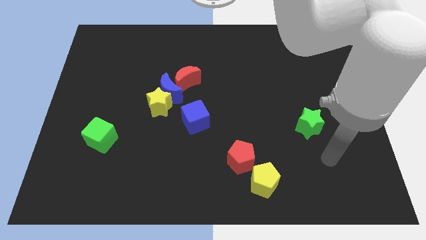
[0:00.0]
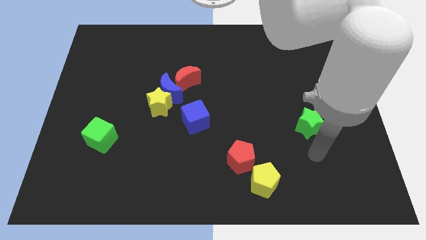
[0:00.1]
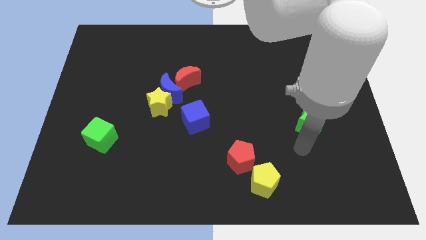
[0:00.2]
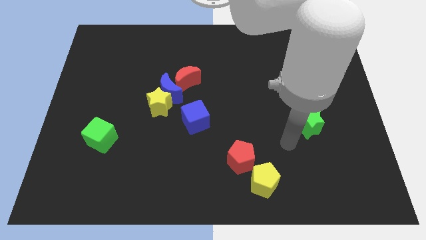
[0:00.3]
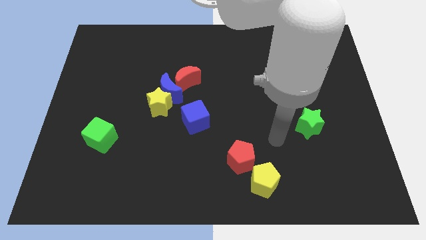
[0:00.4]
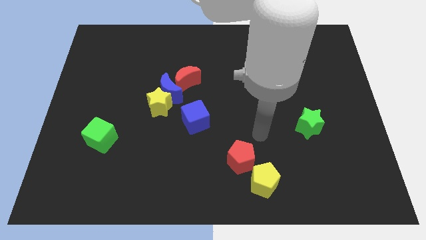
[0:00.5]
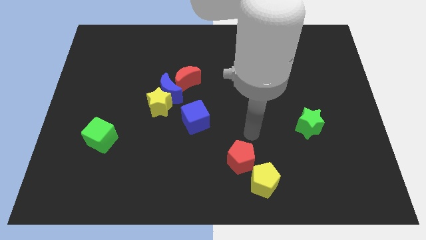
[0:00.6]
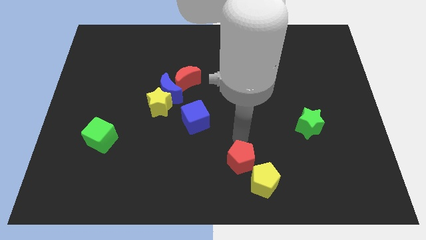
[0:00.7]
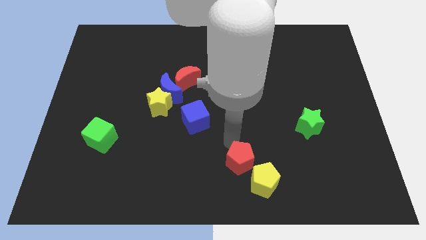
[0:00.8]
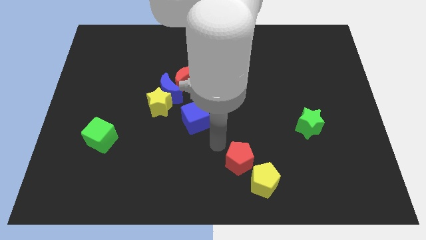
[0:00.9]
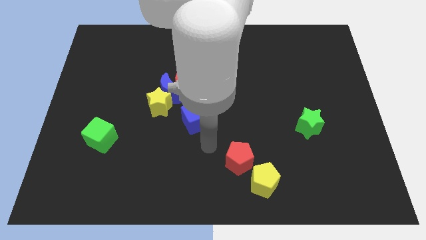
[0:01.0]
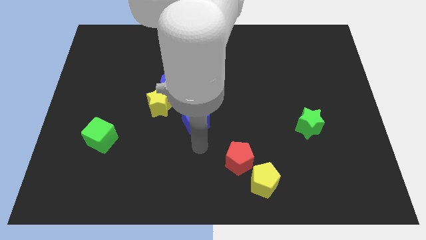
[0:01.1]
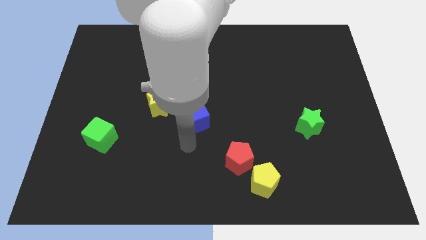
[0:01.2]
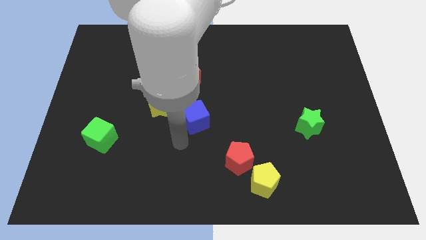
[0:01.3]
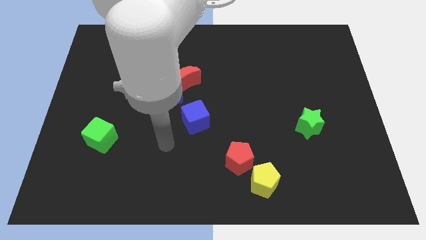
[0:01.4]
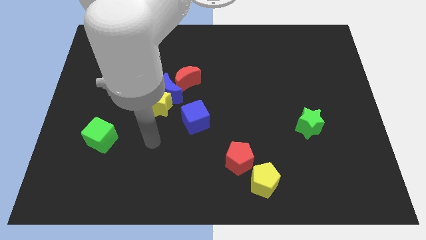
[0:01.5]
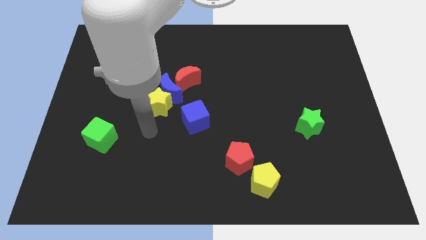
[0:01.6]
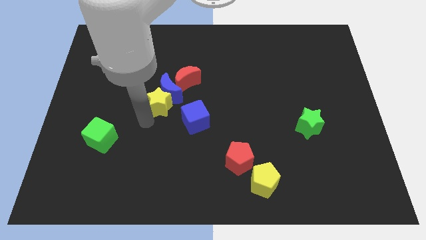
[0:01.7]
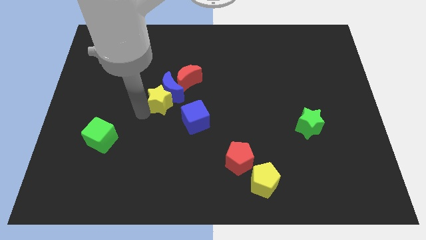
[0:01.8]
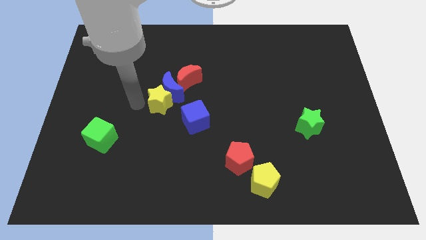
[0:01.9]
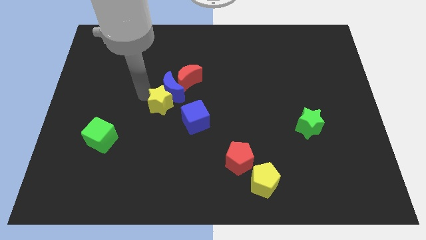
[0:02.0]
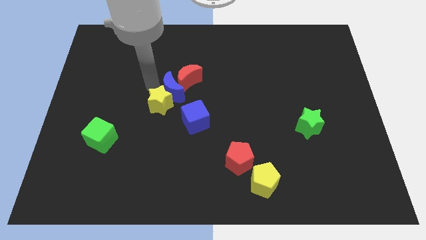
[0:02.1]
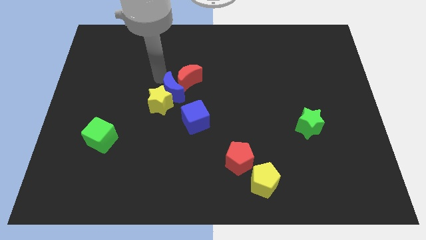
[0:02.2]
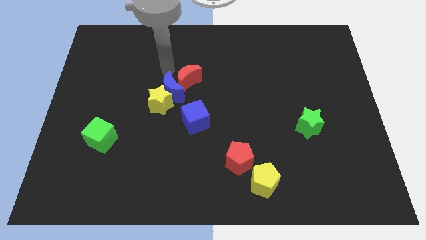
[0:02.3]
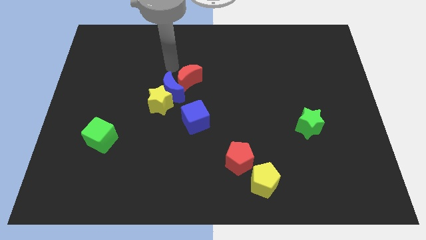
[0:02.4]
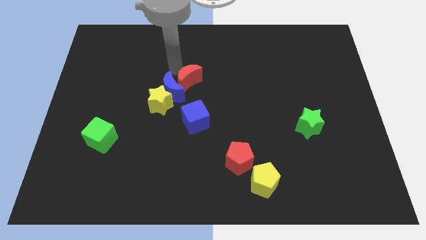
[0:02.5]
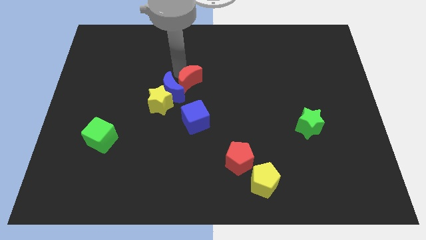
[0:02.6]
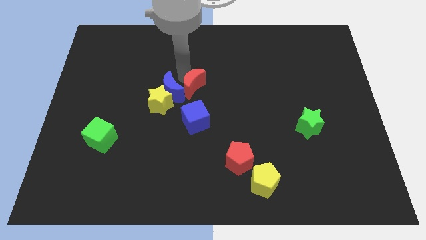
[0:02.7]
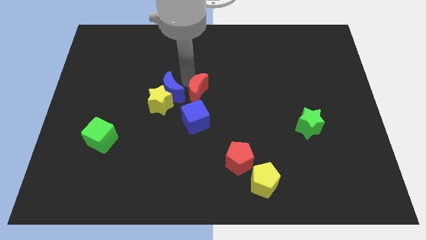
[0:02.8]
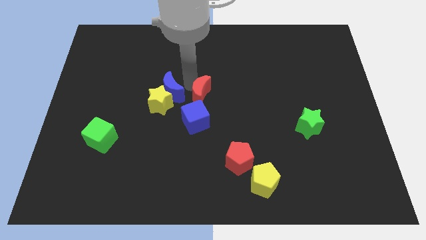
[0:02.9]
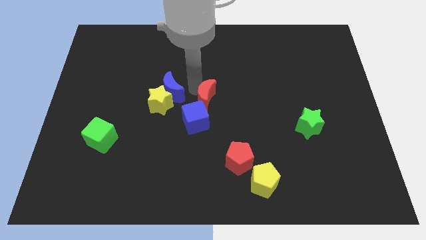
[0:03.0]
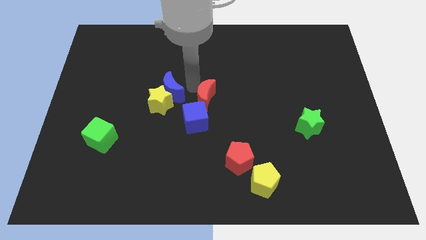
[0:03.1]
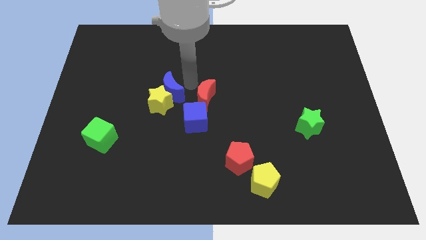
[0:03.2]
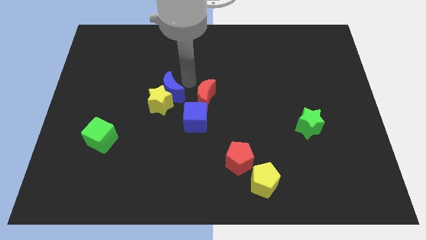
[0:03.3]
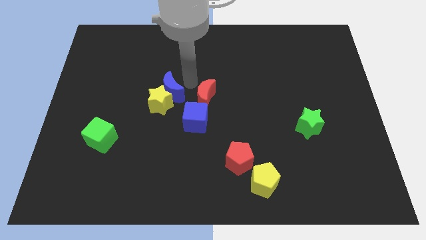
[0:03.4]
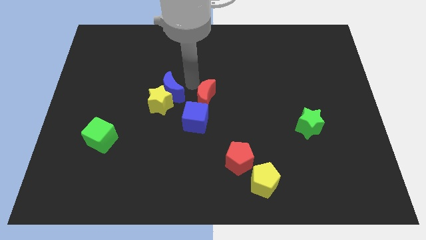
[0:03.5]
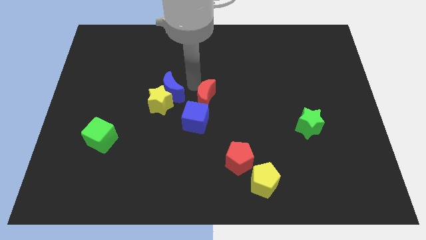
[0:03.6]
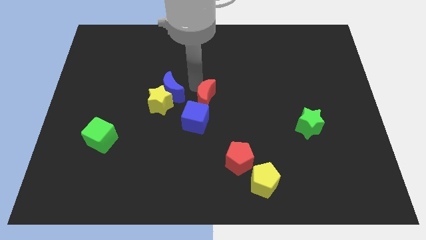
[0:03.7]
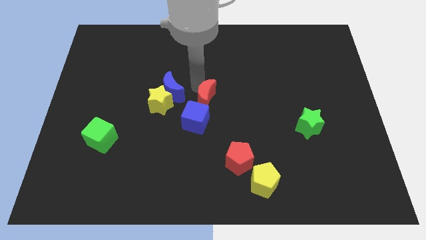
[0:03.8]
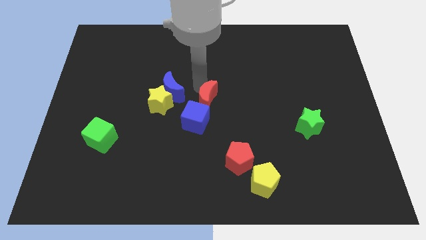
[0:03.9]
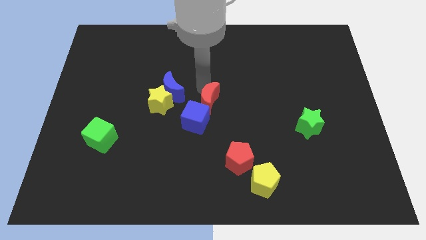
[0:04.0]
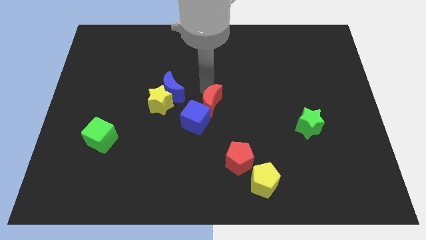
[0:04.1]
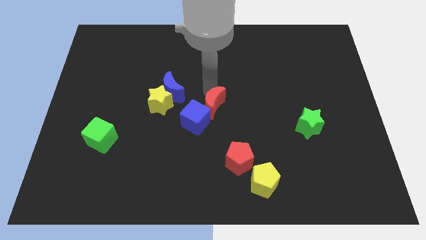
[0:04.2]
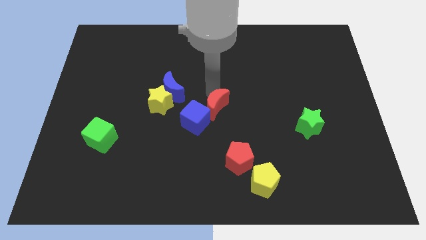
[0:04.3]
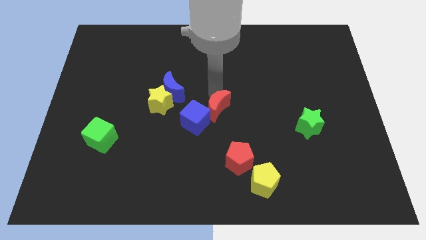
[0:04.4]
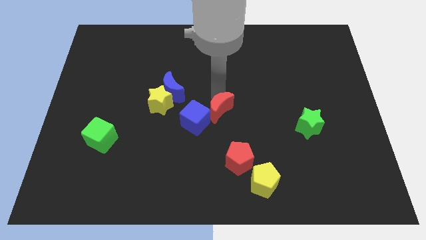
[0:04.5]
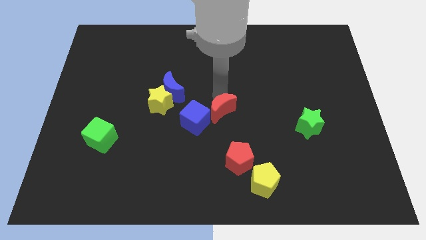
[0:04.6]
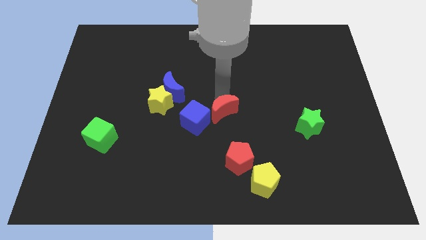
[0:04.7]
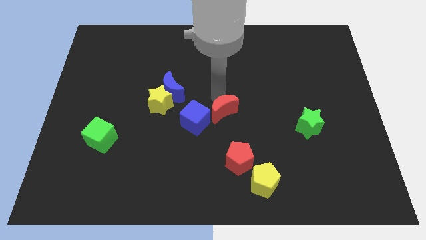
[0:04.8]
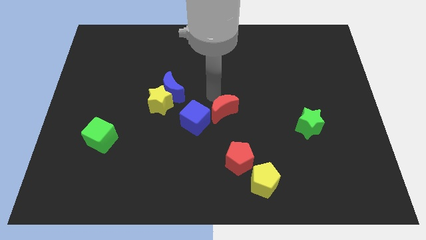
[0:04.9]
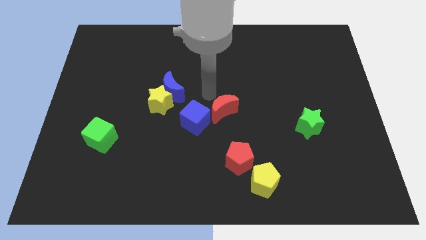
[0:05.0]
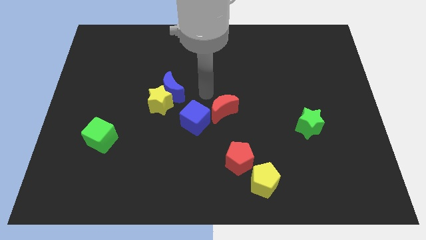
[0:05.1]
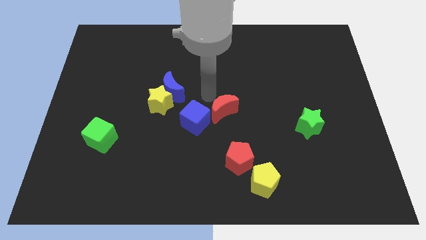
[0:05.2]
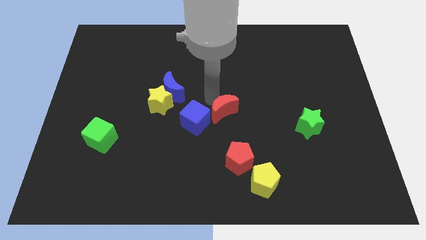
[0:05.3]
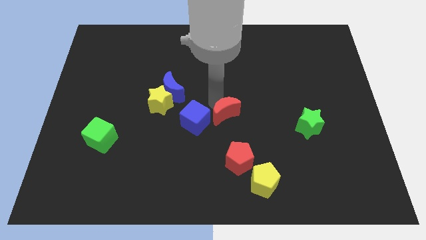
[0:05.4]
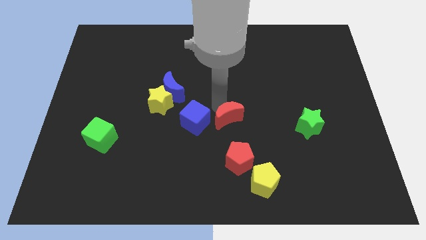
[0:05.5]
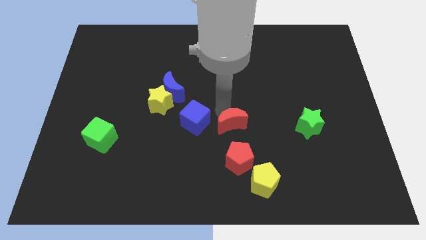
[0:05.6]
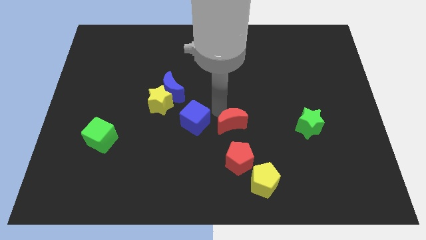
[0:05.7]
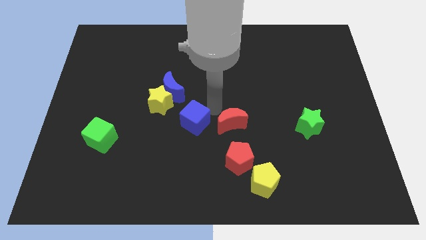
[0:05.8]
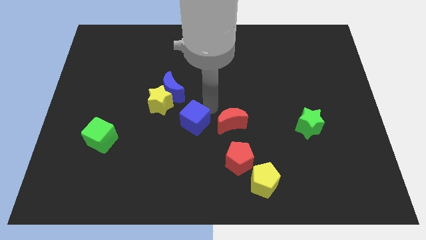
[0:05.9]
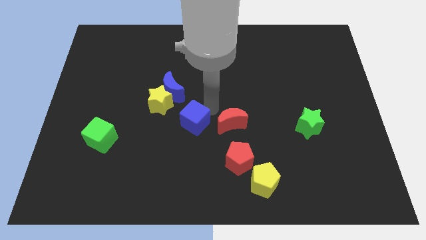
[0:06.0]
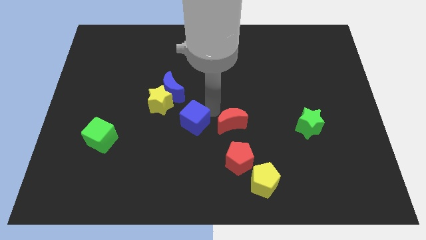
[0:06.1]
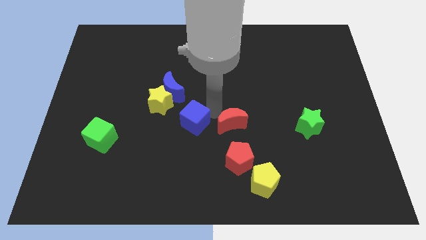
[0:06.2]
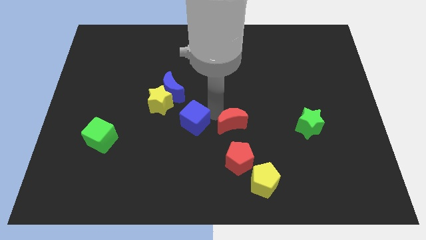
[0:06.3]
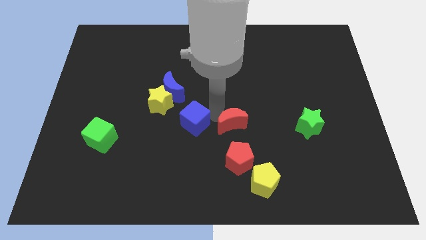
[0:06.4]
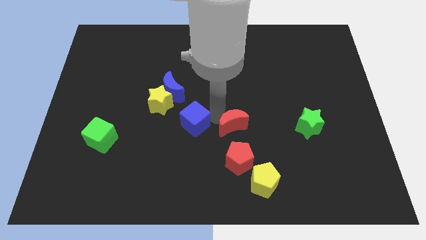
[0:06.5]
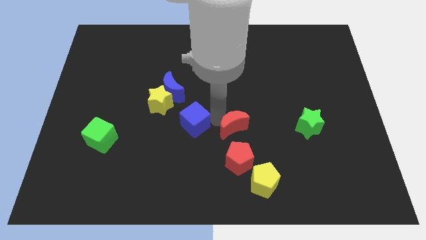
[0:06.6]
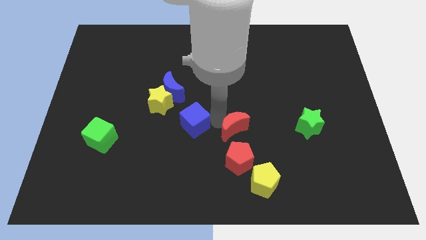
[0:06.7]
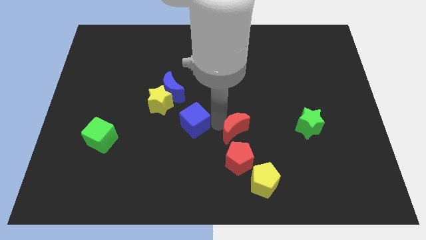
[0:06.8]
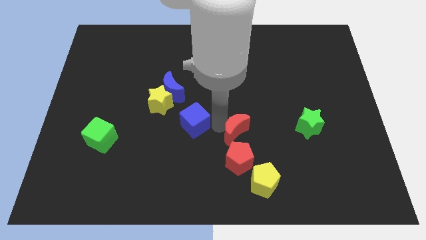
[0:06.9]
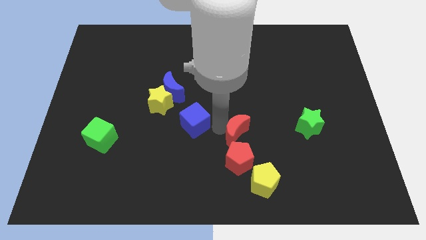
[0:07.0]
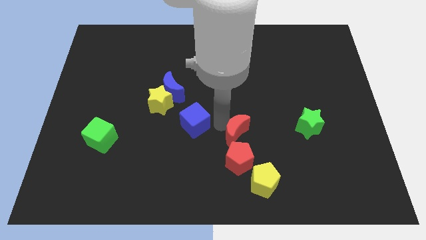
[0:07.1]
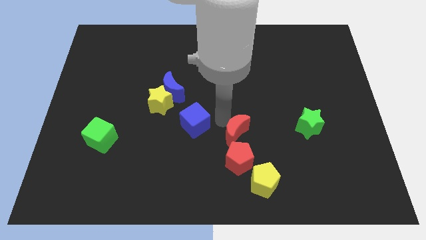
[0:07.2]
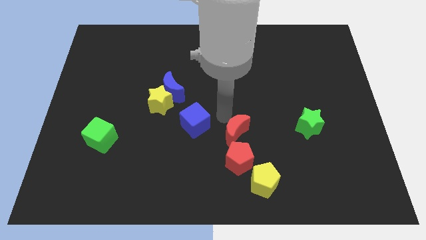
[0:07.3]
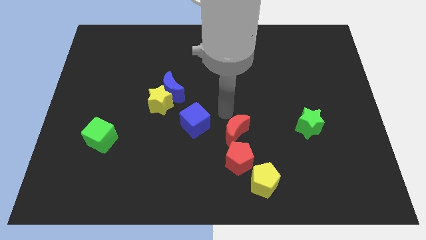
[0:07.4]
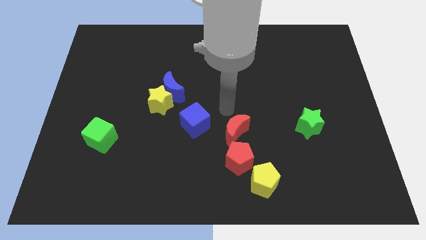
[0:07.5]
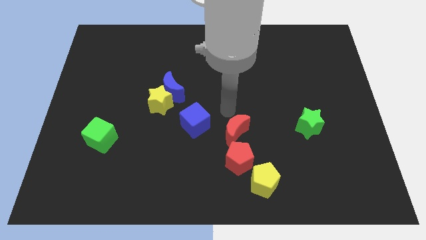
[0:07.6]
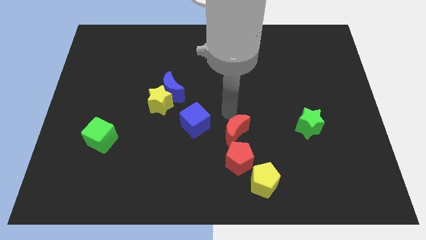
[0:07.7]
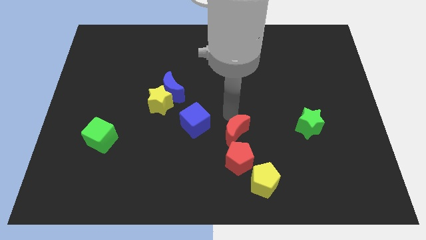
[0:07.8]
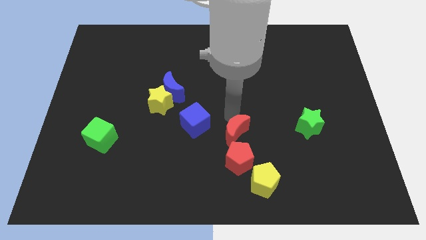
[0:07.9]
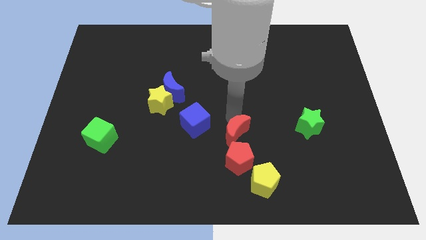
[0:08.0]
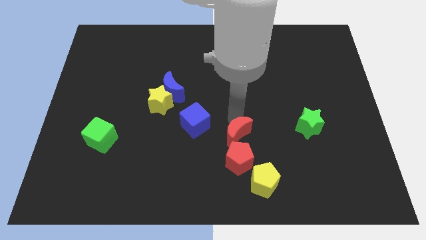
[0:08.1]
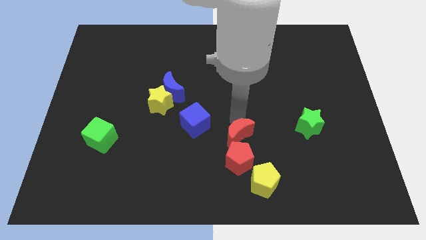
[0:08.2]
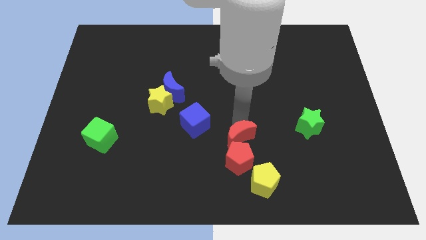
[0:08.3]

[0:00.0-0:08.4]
slide the red moon towards the red pentagon
